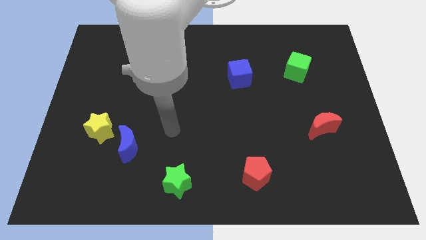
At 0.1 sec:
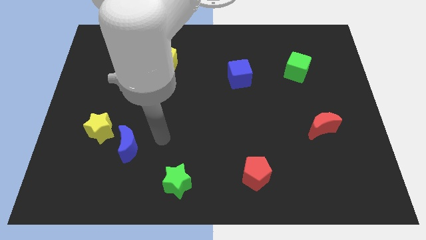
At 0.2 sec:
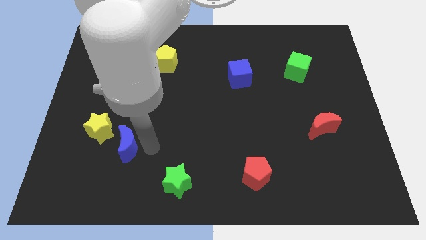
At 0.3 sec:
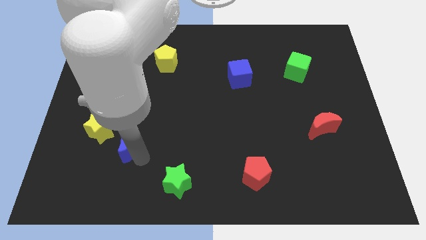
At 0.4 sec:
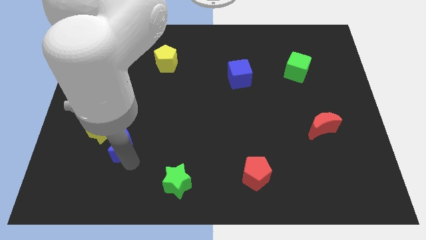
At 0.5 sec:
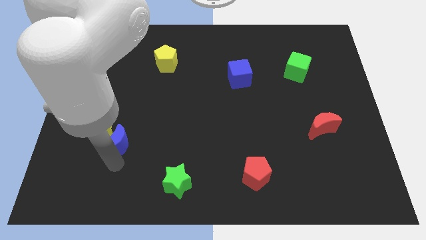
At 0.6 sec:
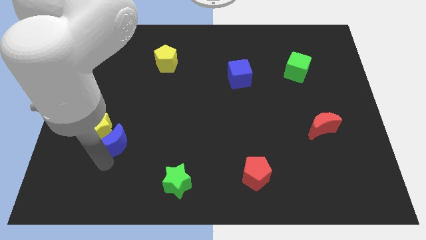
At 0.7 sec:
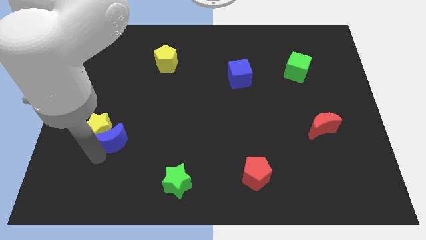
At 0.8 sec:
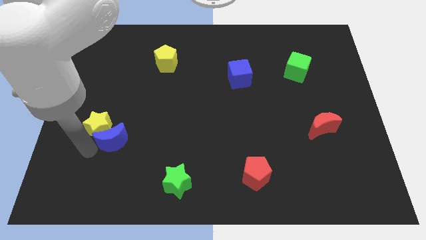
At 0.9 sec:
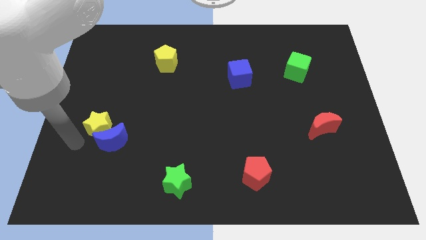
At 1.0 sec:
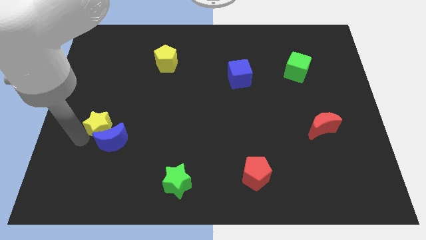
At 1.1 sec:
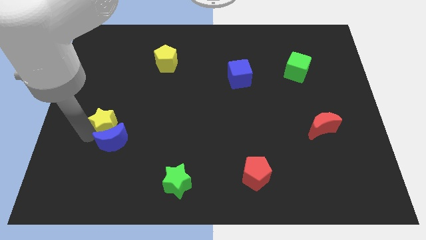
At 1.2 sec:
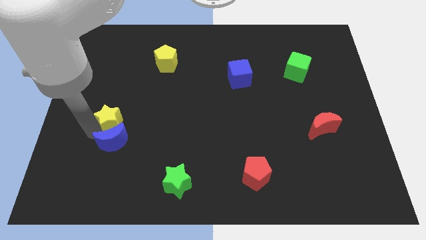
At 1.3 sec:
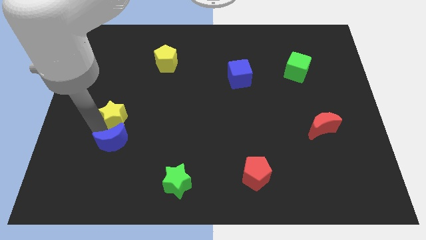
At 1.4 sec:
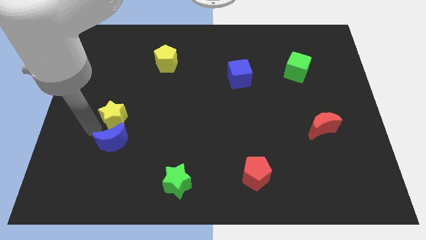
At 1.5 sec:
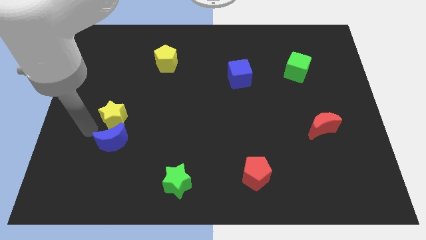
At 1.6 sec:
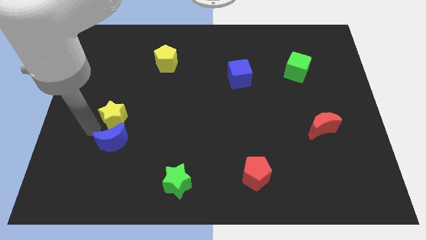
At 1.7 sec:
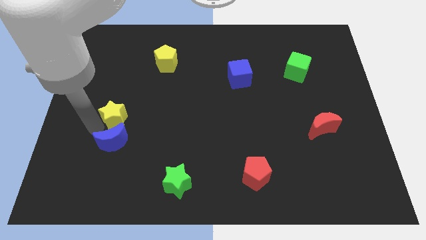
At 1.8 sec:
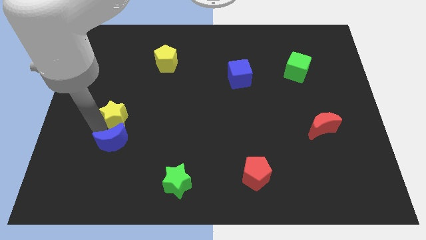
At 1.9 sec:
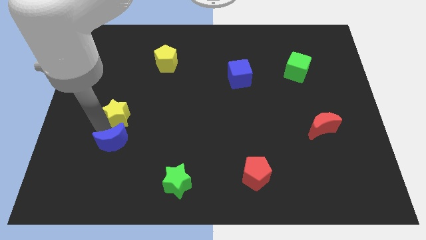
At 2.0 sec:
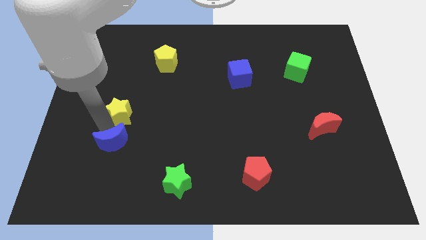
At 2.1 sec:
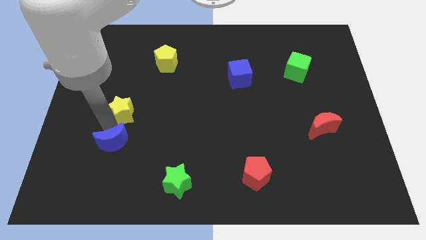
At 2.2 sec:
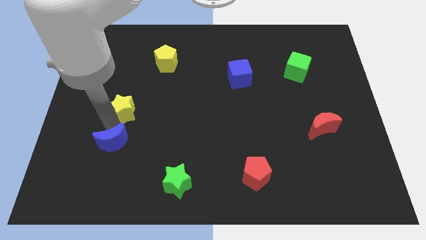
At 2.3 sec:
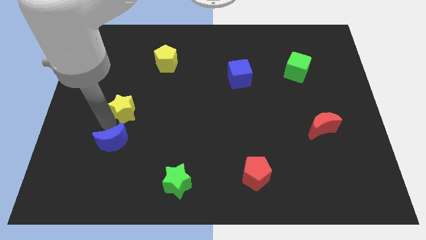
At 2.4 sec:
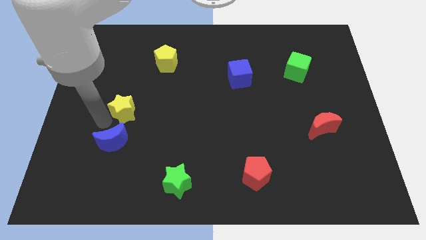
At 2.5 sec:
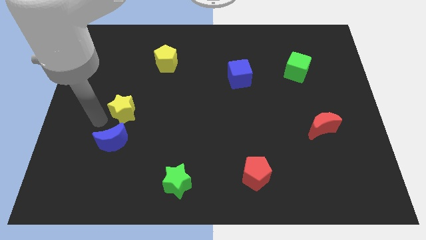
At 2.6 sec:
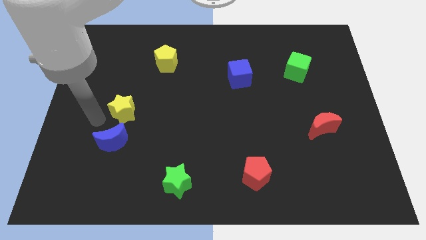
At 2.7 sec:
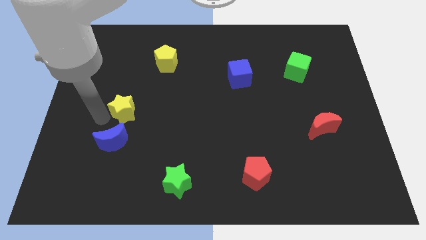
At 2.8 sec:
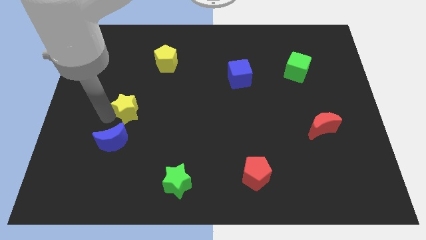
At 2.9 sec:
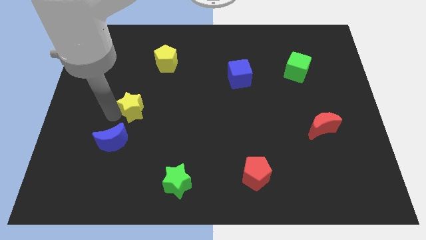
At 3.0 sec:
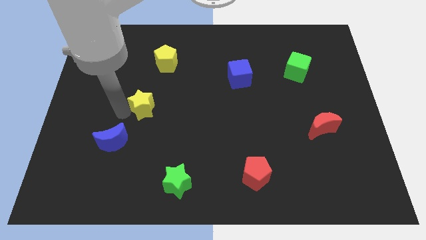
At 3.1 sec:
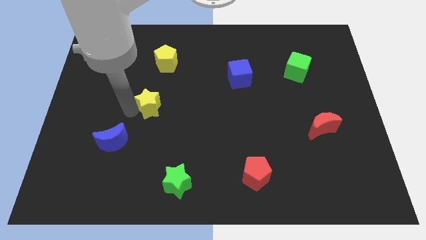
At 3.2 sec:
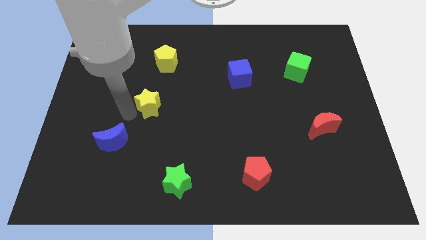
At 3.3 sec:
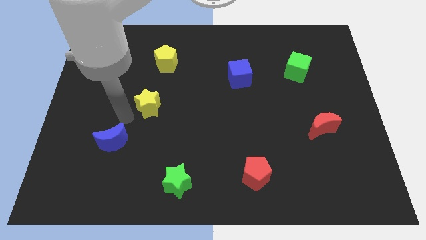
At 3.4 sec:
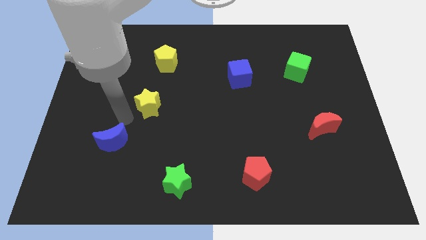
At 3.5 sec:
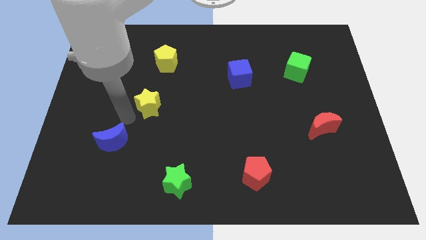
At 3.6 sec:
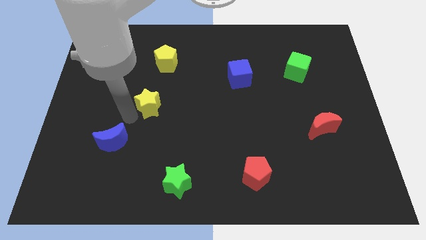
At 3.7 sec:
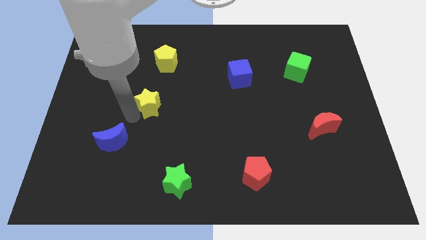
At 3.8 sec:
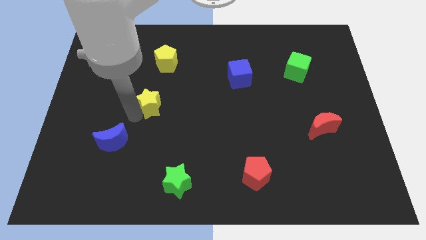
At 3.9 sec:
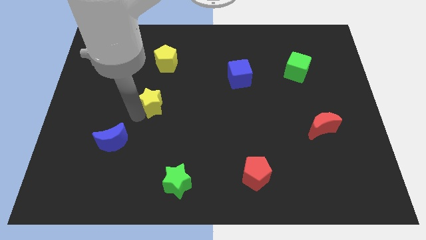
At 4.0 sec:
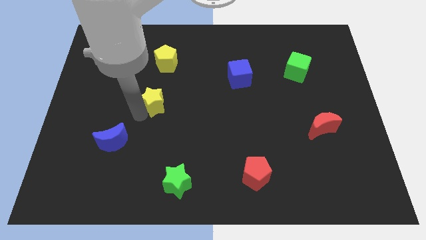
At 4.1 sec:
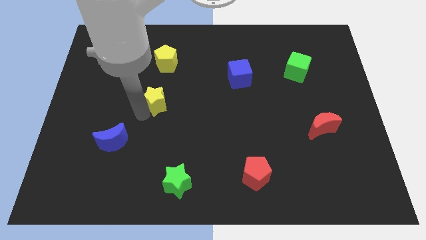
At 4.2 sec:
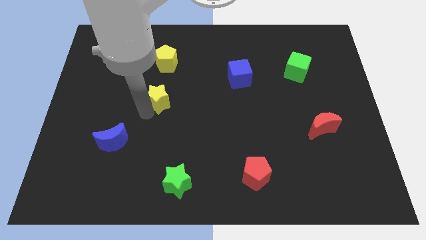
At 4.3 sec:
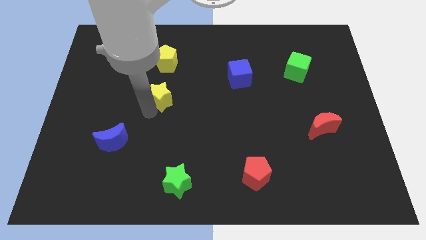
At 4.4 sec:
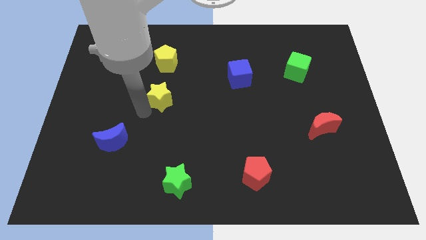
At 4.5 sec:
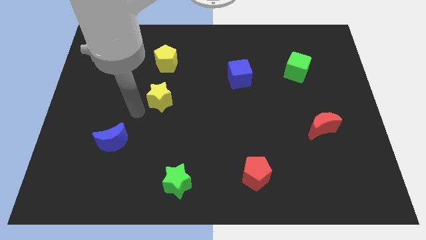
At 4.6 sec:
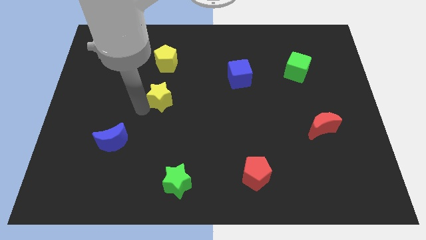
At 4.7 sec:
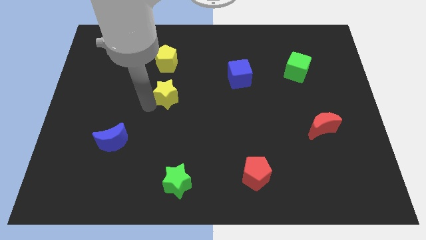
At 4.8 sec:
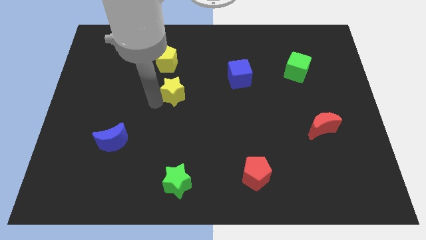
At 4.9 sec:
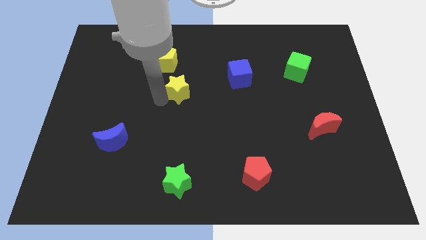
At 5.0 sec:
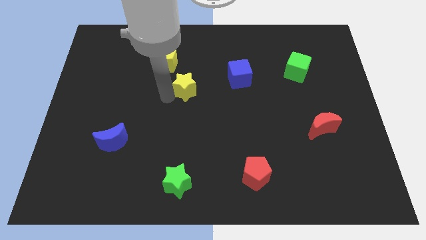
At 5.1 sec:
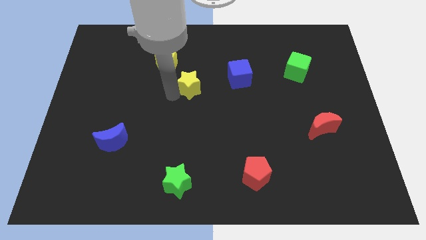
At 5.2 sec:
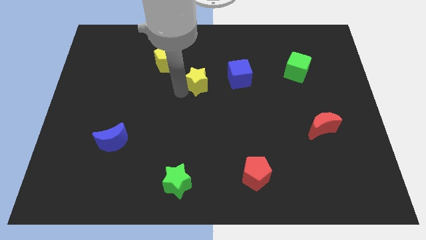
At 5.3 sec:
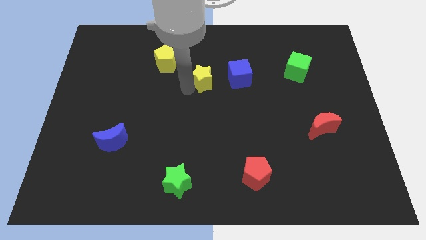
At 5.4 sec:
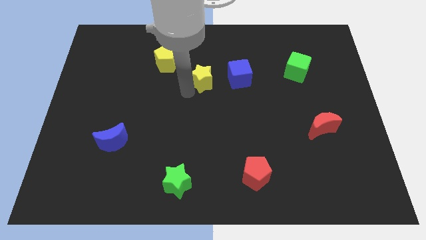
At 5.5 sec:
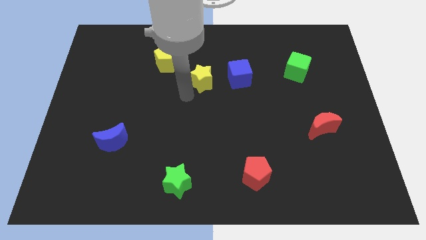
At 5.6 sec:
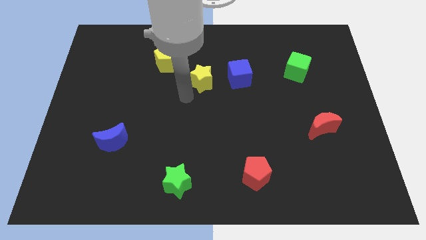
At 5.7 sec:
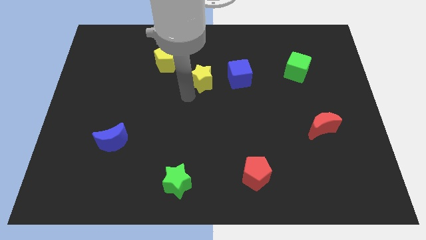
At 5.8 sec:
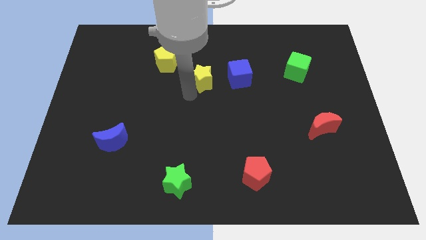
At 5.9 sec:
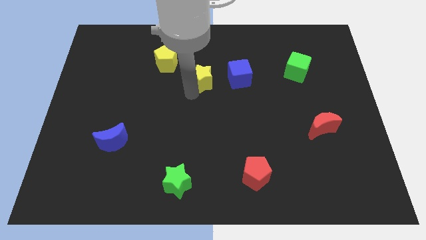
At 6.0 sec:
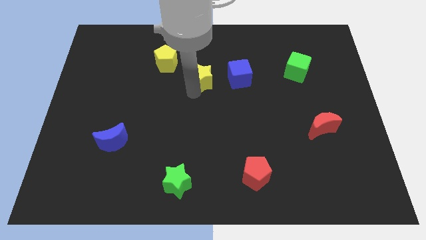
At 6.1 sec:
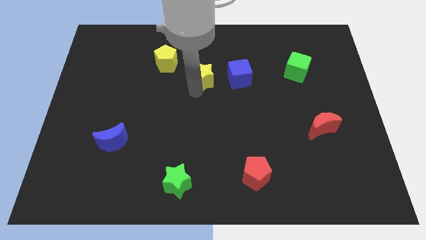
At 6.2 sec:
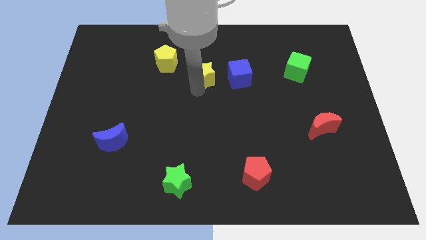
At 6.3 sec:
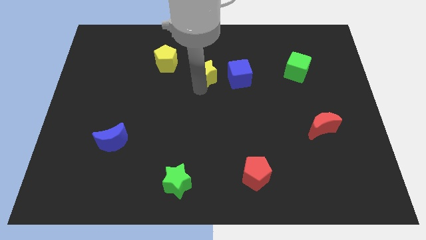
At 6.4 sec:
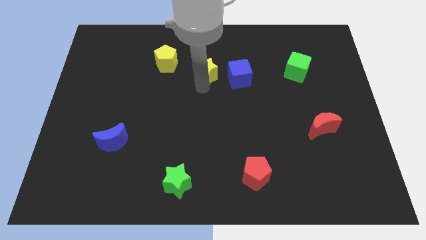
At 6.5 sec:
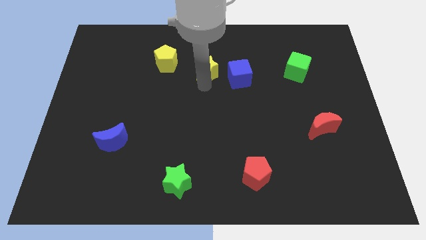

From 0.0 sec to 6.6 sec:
push the yellow star diagonally up and to the left of the blue cube
